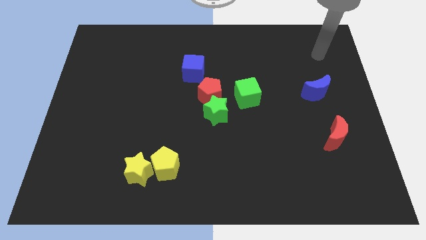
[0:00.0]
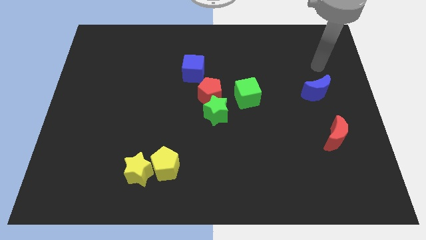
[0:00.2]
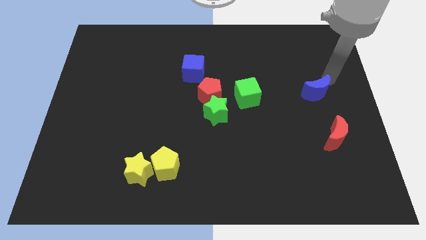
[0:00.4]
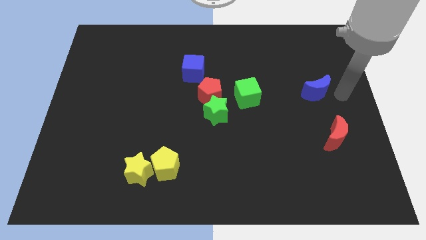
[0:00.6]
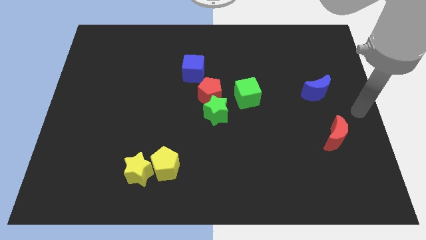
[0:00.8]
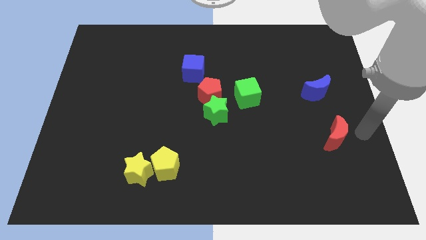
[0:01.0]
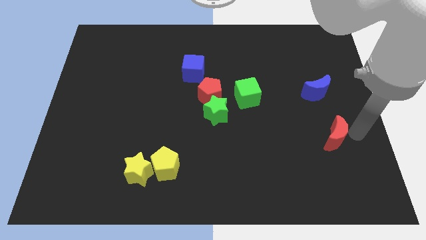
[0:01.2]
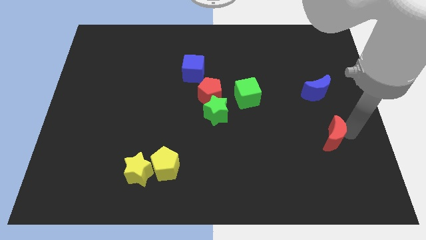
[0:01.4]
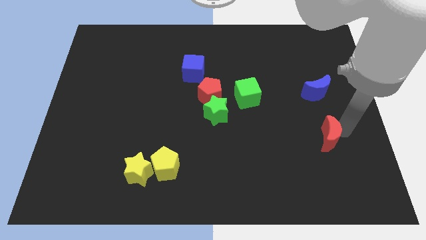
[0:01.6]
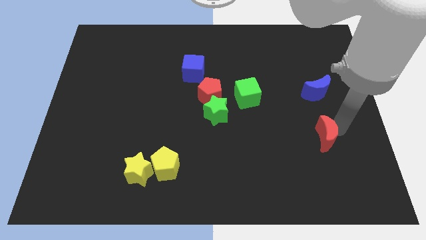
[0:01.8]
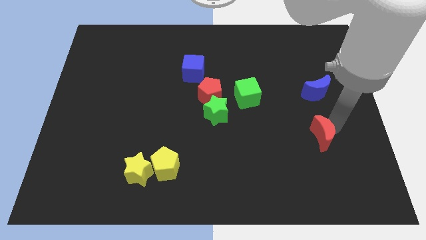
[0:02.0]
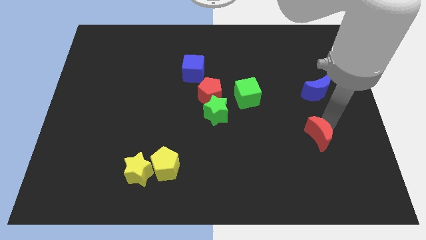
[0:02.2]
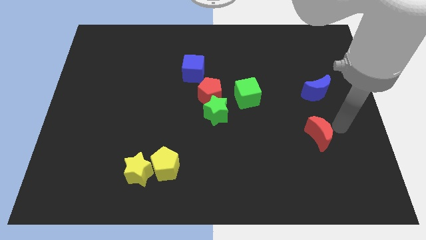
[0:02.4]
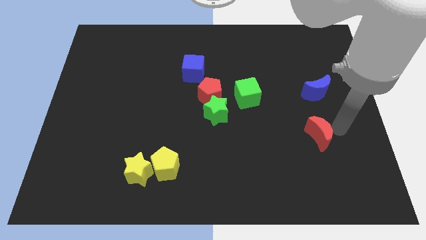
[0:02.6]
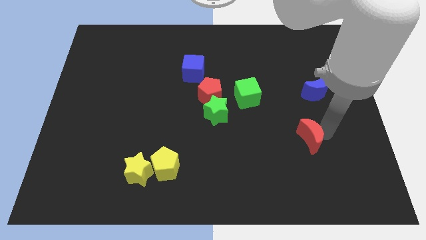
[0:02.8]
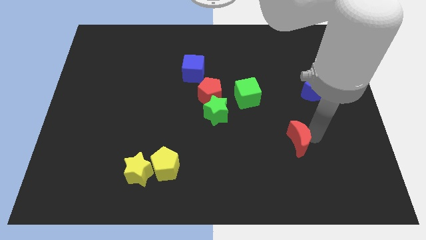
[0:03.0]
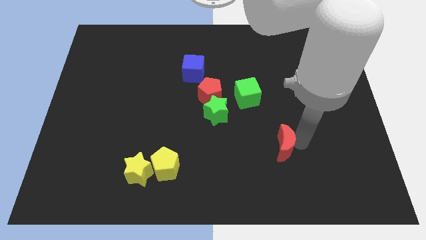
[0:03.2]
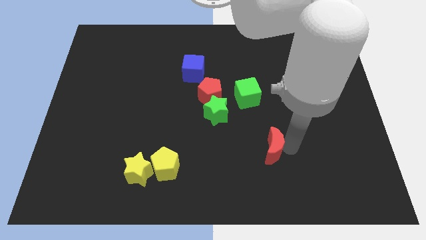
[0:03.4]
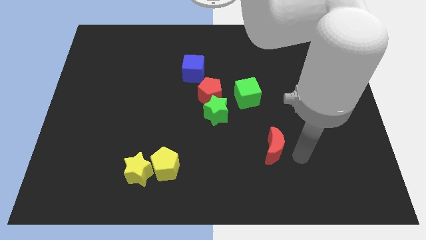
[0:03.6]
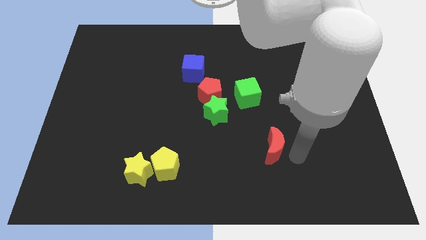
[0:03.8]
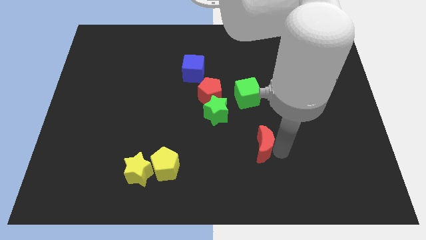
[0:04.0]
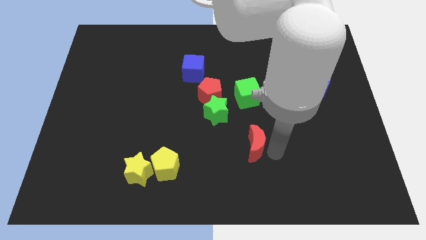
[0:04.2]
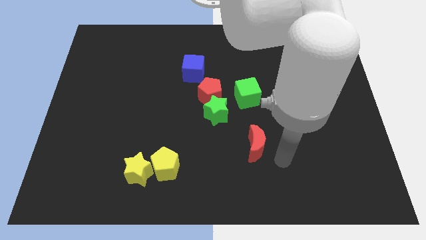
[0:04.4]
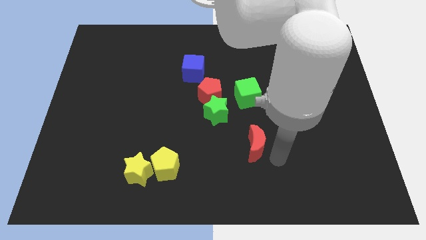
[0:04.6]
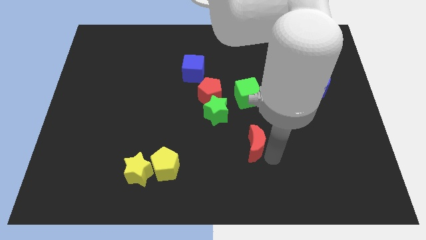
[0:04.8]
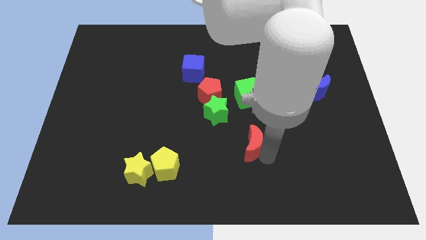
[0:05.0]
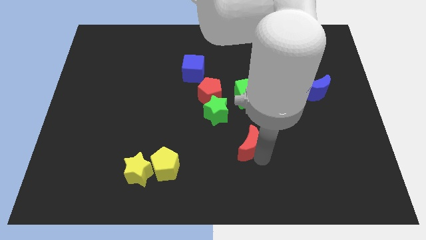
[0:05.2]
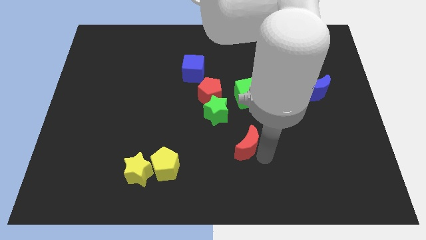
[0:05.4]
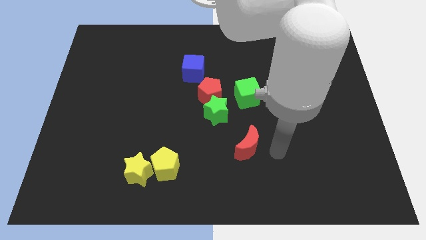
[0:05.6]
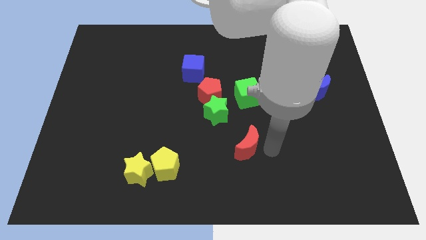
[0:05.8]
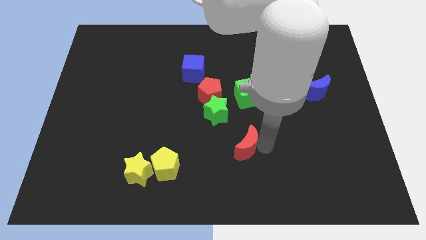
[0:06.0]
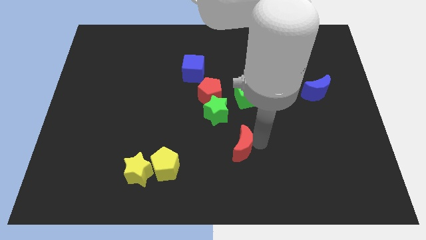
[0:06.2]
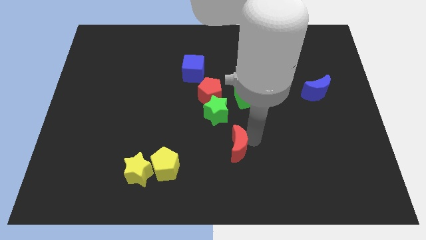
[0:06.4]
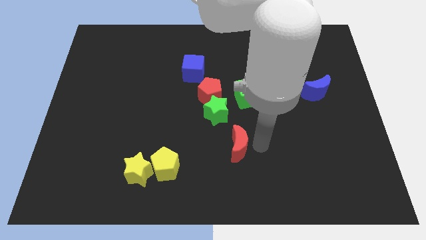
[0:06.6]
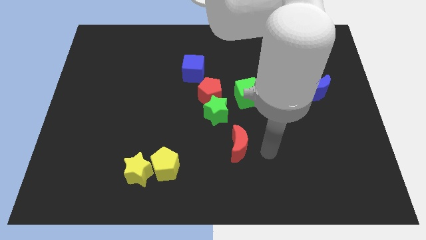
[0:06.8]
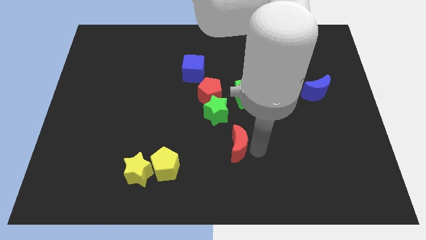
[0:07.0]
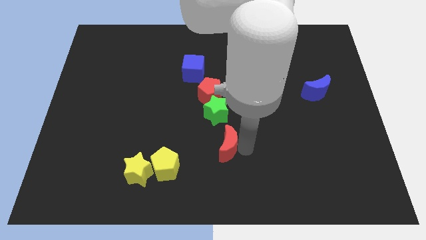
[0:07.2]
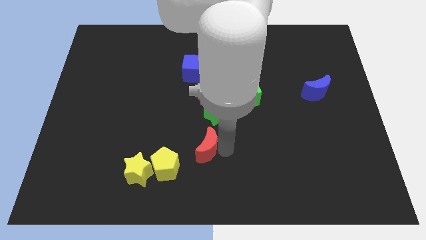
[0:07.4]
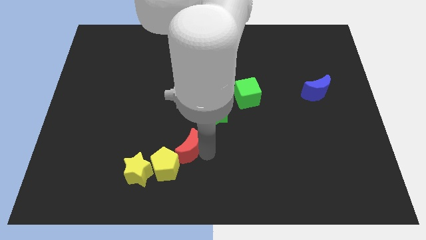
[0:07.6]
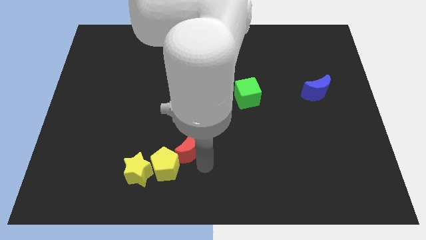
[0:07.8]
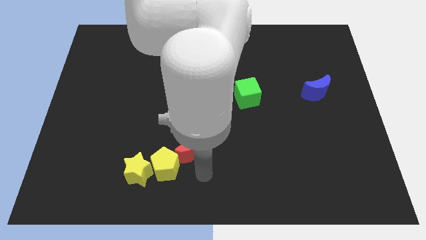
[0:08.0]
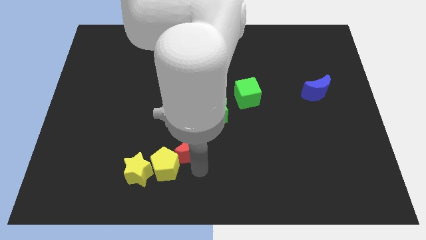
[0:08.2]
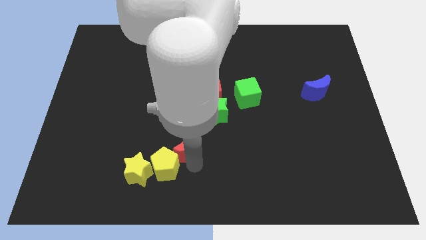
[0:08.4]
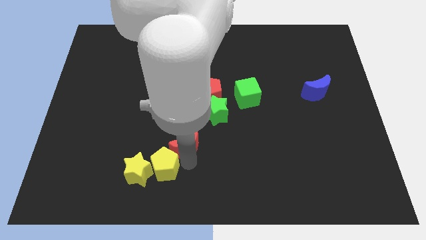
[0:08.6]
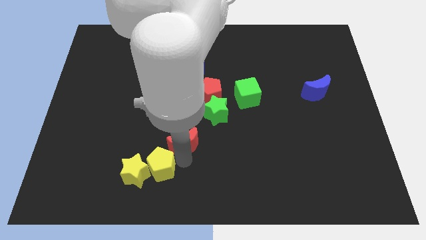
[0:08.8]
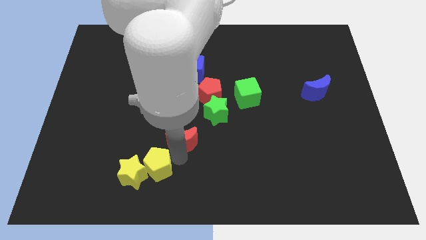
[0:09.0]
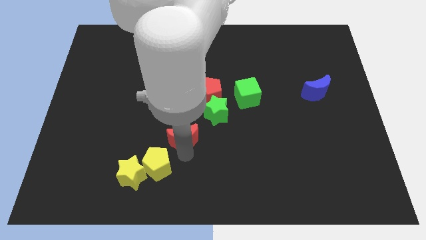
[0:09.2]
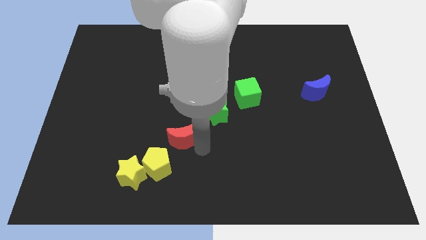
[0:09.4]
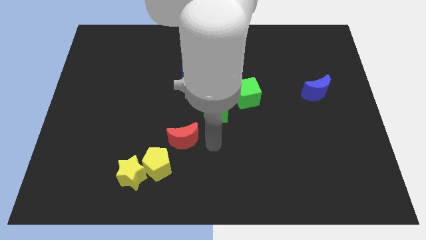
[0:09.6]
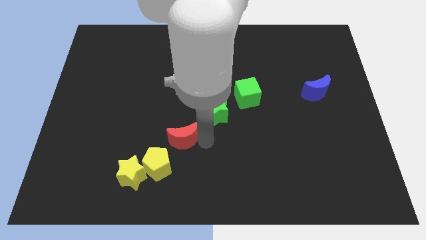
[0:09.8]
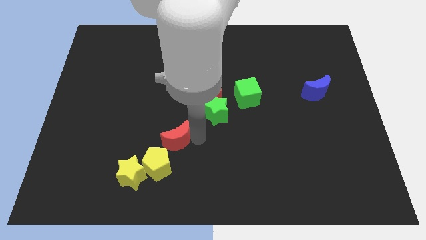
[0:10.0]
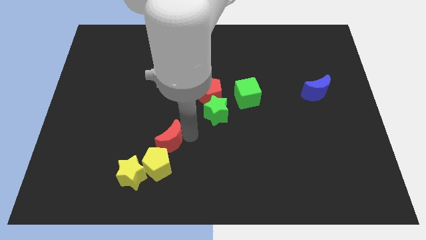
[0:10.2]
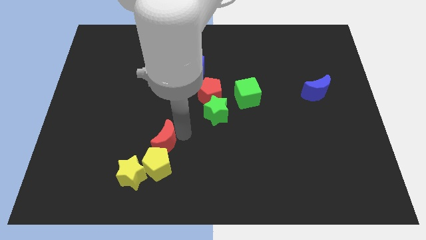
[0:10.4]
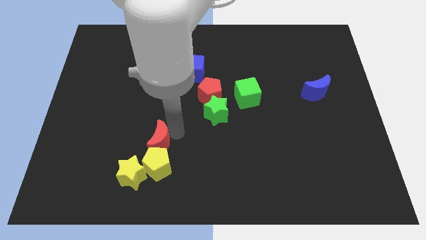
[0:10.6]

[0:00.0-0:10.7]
move the red moon above the yellow star

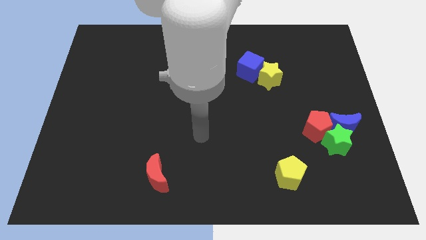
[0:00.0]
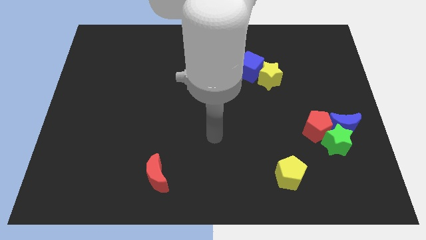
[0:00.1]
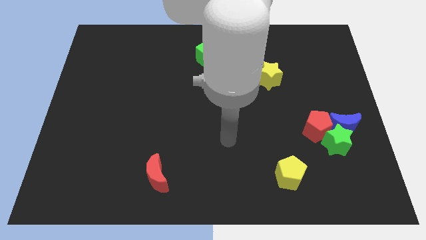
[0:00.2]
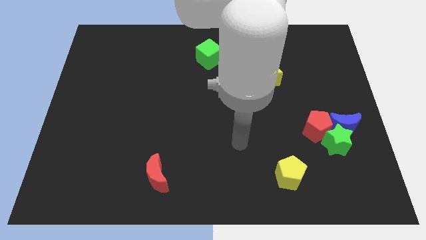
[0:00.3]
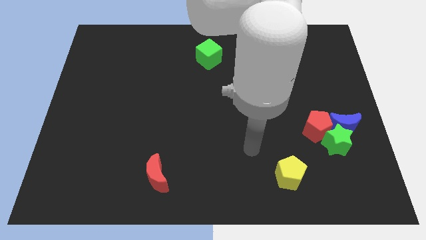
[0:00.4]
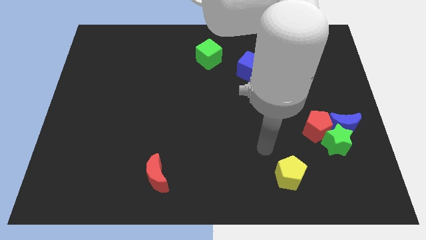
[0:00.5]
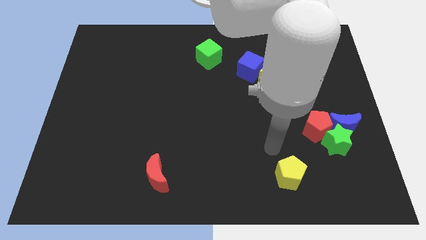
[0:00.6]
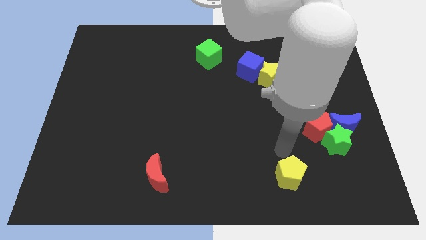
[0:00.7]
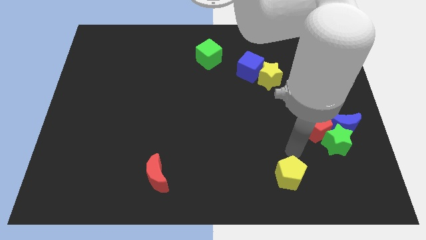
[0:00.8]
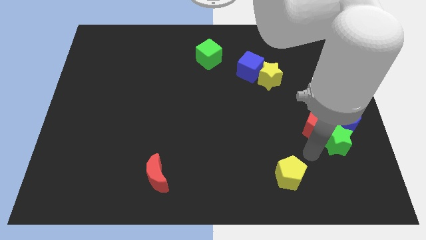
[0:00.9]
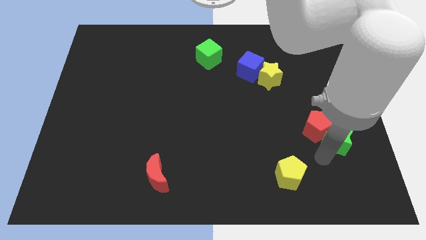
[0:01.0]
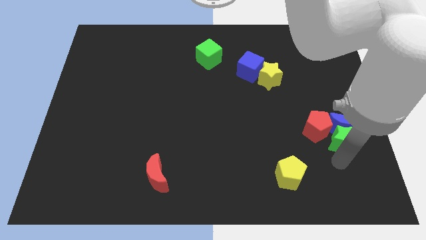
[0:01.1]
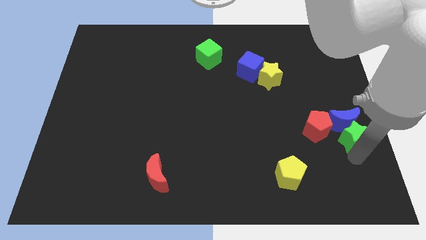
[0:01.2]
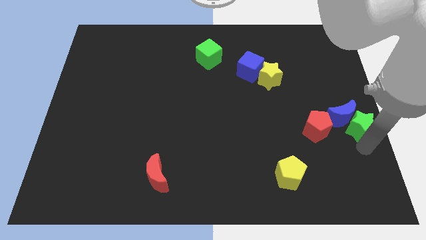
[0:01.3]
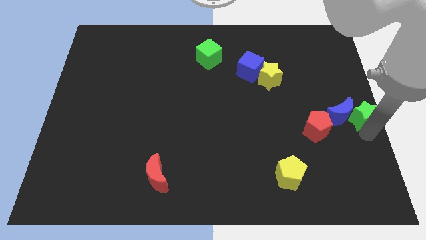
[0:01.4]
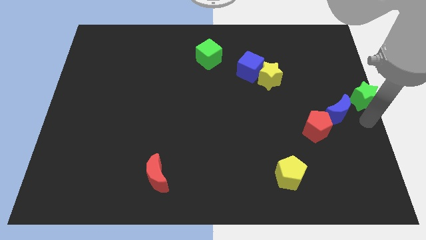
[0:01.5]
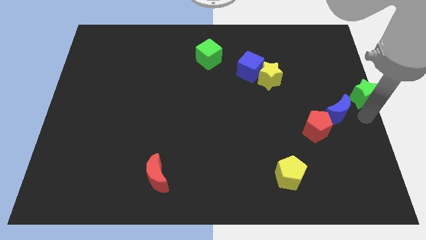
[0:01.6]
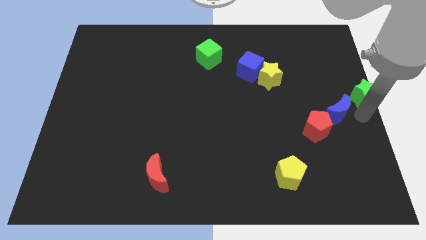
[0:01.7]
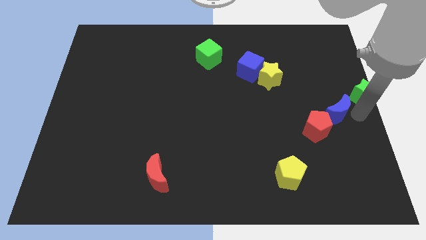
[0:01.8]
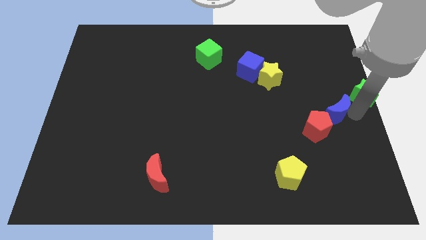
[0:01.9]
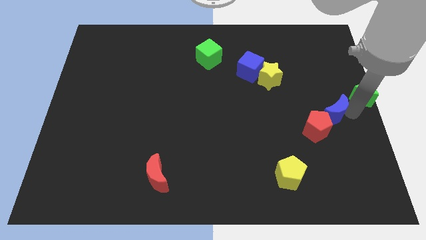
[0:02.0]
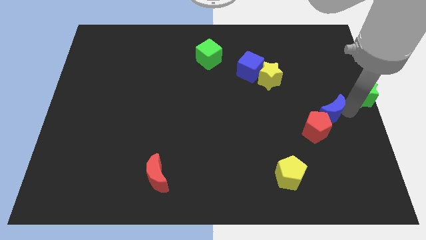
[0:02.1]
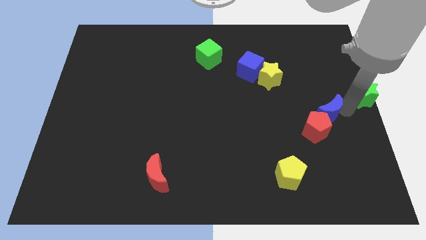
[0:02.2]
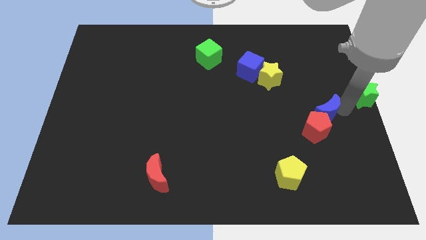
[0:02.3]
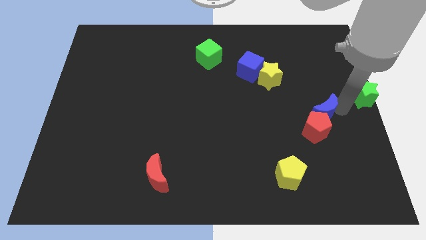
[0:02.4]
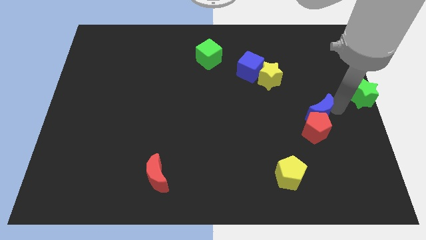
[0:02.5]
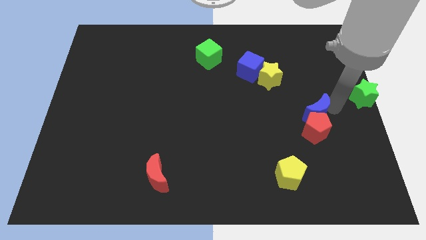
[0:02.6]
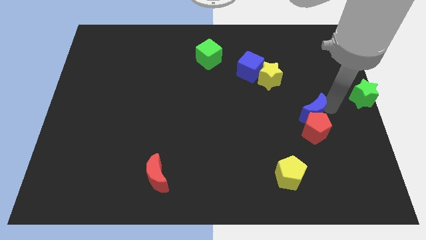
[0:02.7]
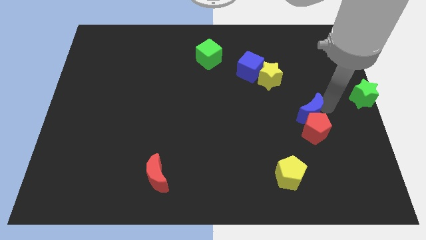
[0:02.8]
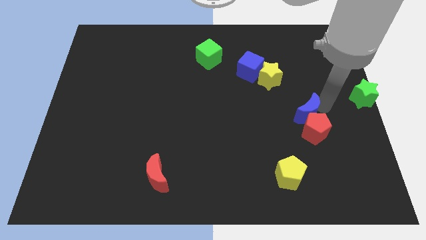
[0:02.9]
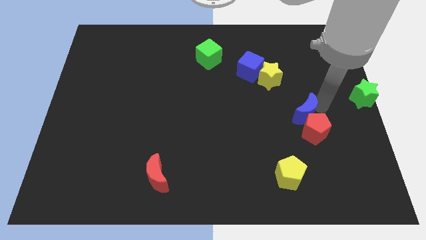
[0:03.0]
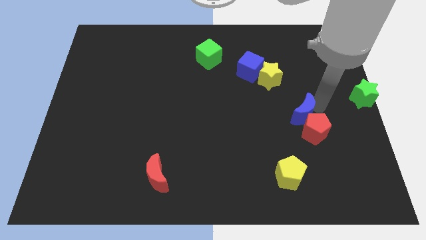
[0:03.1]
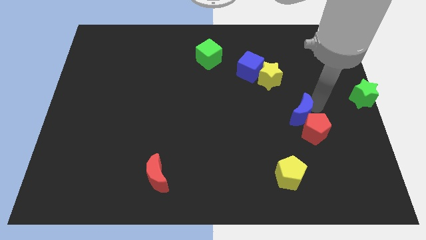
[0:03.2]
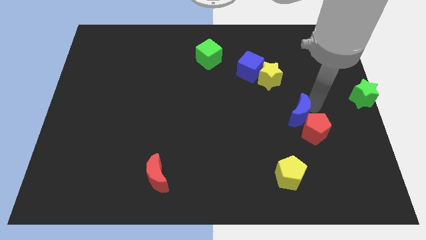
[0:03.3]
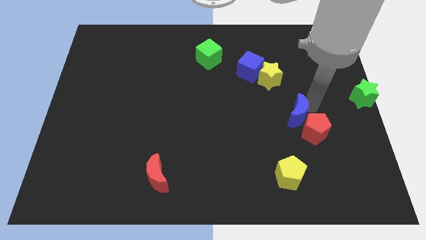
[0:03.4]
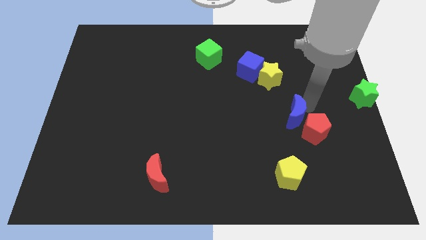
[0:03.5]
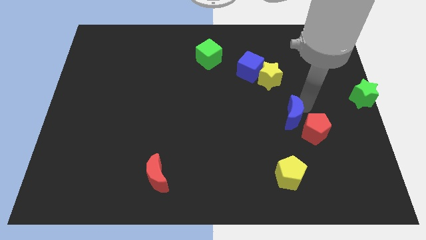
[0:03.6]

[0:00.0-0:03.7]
put the blue moon above the yellow pentagon
